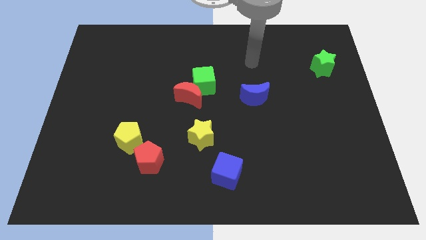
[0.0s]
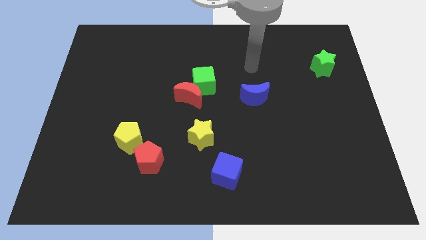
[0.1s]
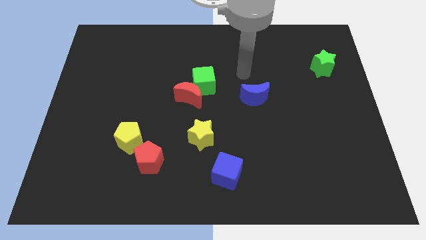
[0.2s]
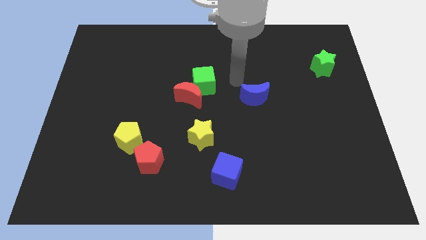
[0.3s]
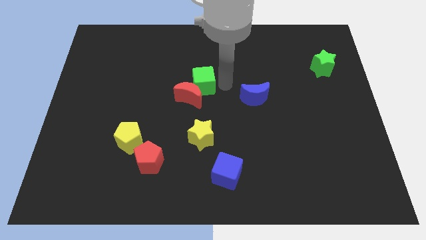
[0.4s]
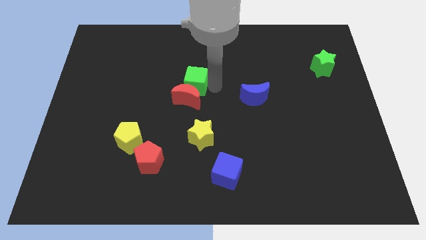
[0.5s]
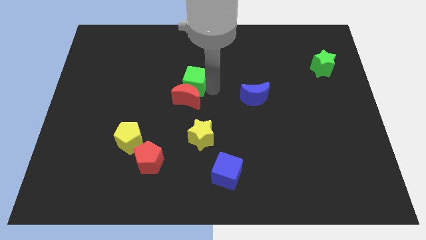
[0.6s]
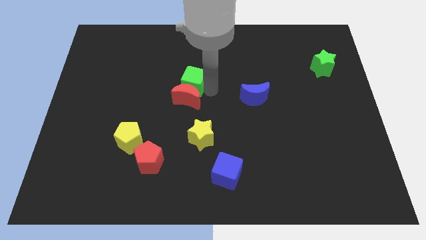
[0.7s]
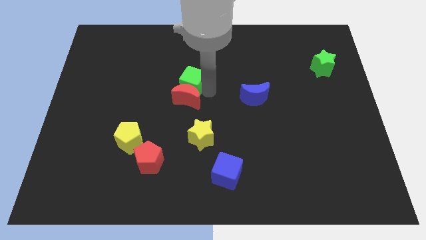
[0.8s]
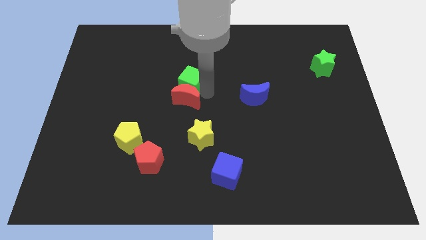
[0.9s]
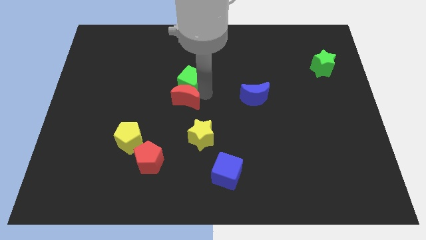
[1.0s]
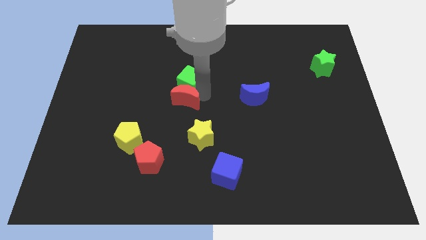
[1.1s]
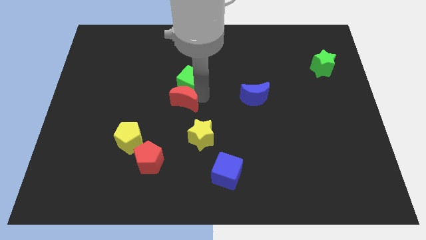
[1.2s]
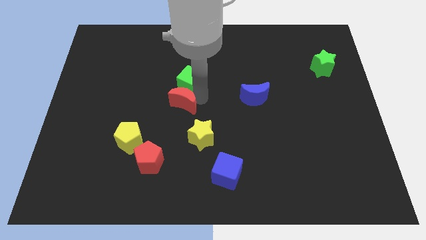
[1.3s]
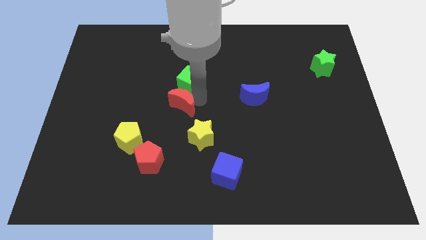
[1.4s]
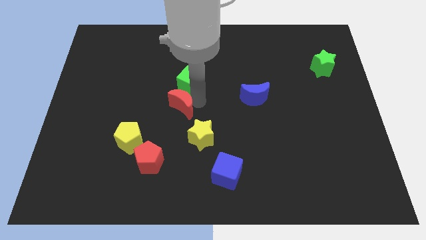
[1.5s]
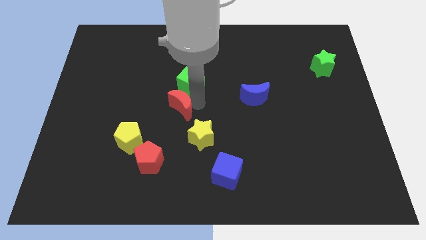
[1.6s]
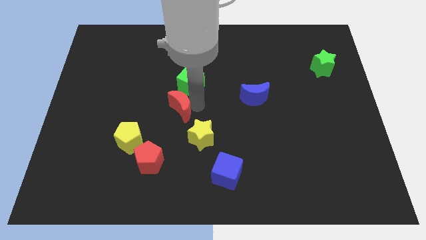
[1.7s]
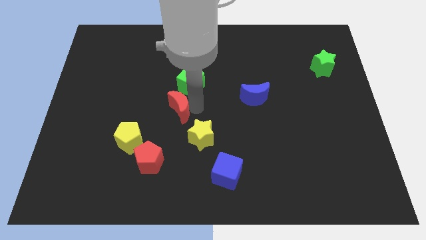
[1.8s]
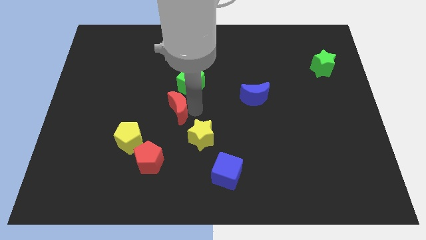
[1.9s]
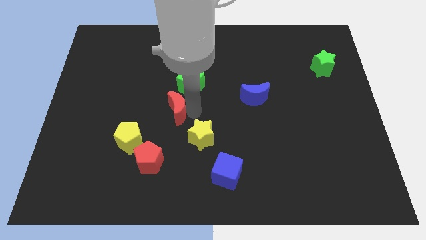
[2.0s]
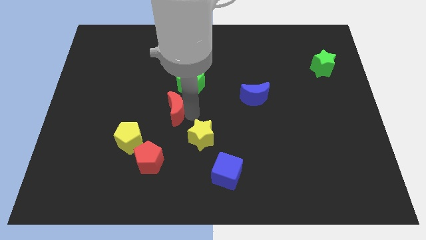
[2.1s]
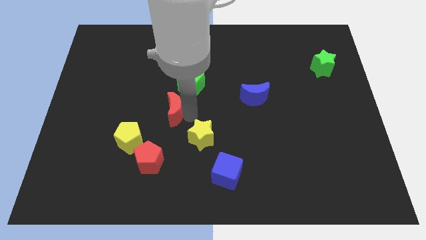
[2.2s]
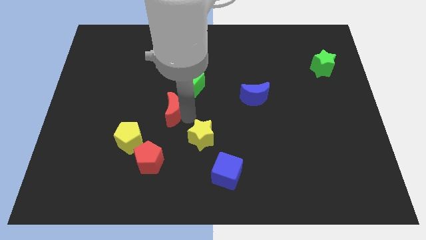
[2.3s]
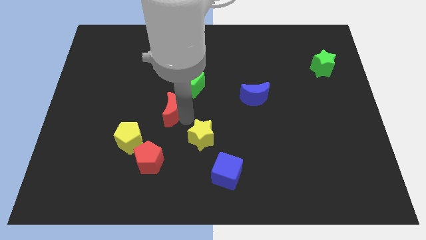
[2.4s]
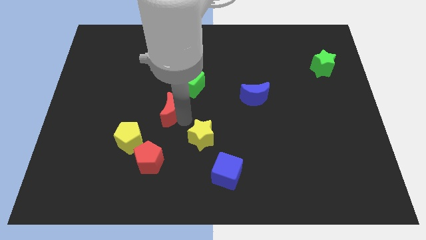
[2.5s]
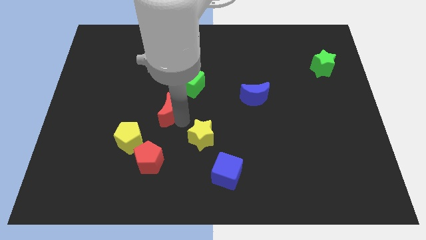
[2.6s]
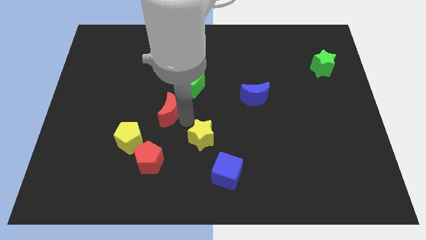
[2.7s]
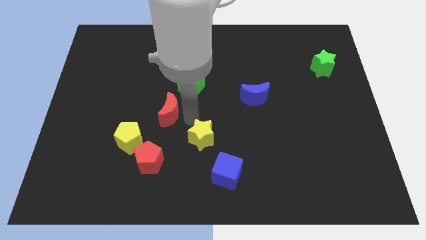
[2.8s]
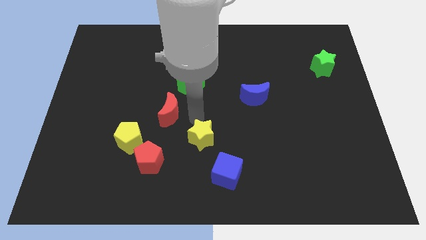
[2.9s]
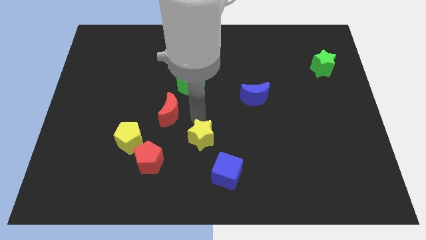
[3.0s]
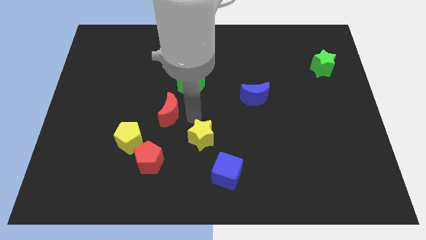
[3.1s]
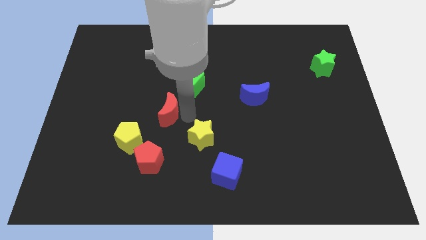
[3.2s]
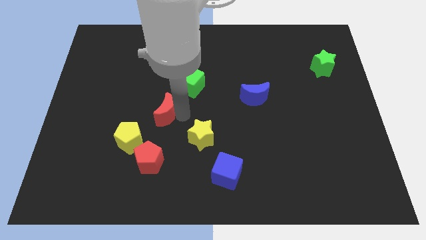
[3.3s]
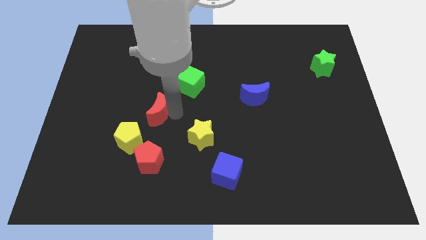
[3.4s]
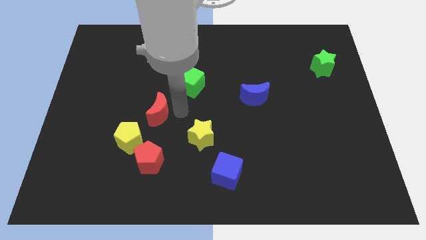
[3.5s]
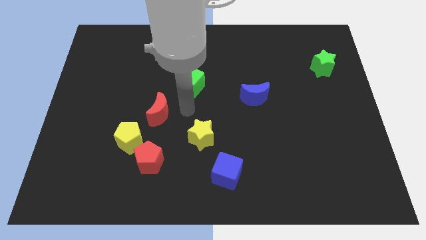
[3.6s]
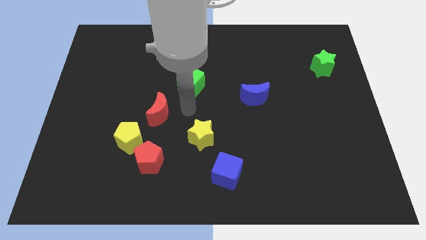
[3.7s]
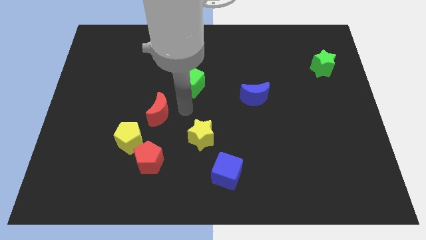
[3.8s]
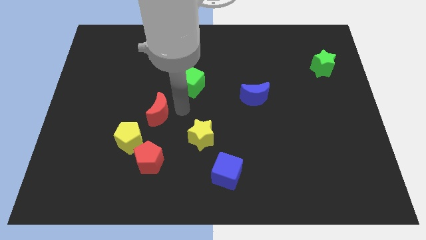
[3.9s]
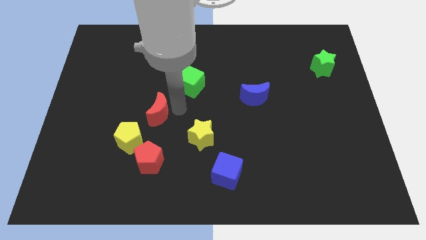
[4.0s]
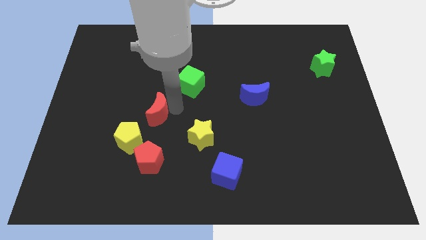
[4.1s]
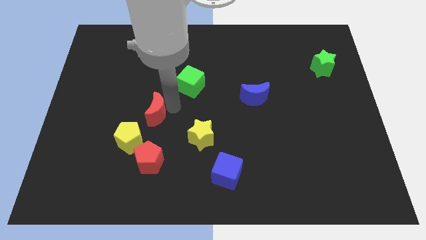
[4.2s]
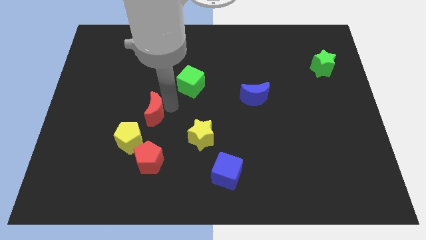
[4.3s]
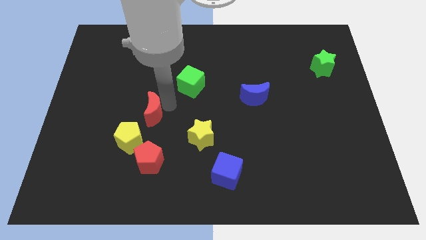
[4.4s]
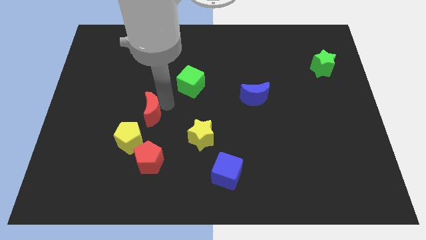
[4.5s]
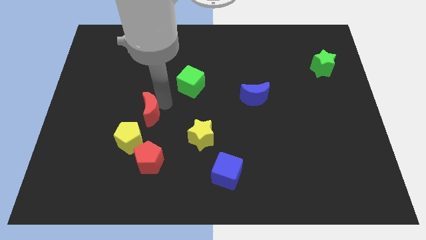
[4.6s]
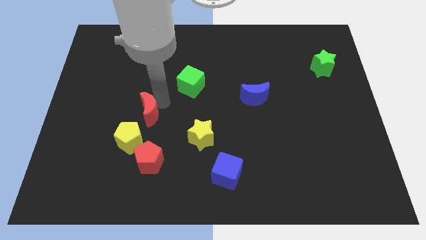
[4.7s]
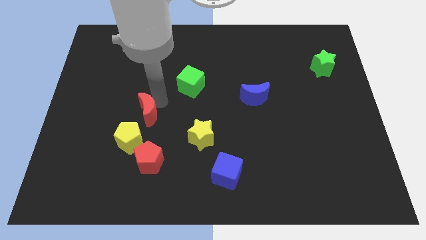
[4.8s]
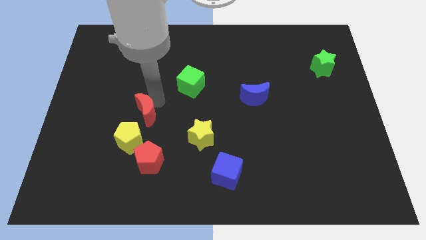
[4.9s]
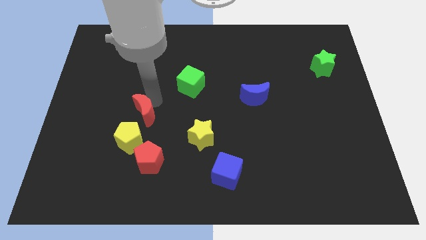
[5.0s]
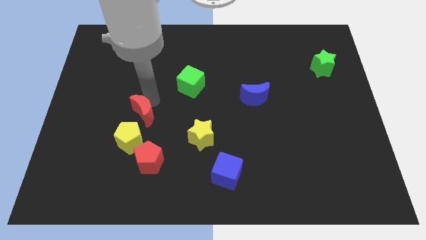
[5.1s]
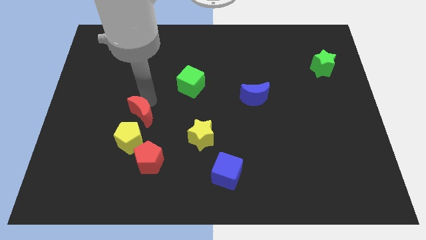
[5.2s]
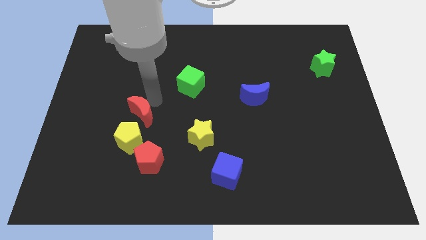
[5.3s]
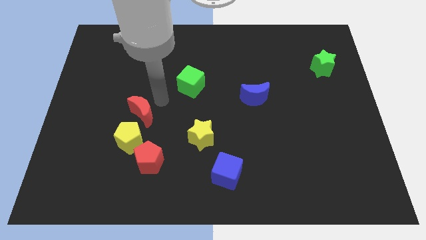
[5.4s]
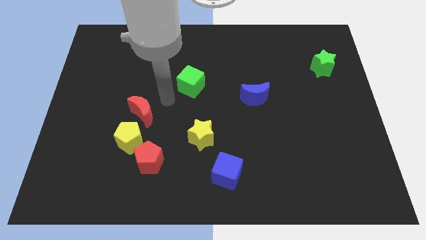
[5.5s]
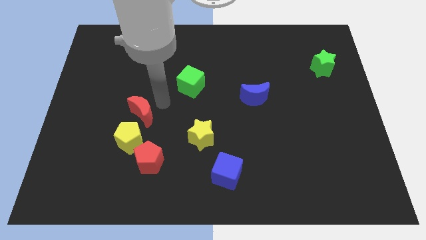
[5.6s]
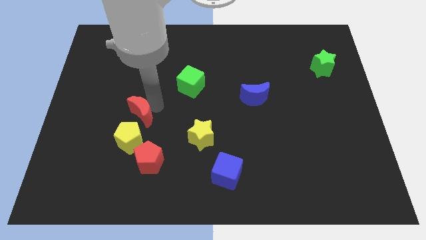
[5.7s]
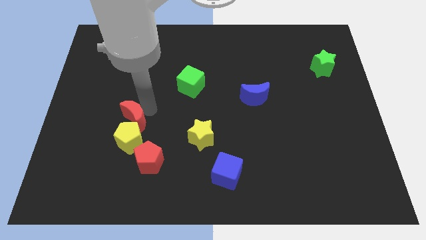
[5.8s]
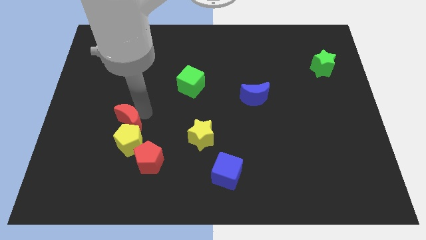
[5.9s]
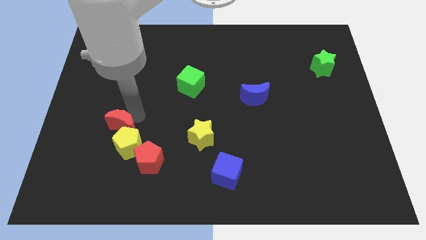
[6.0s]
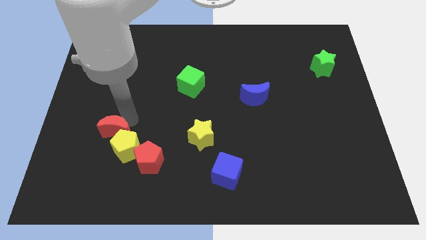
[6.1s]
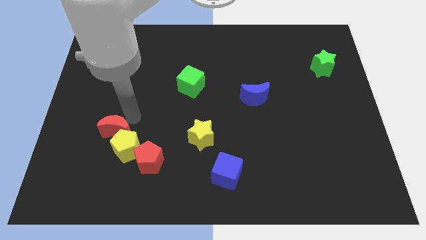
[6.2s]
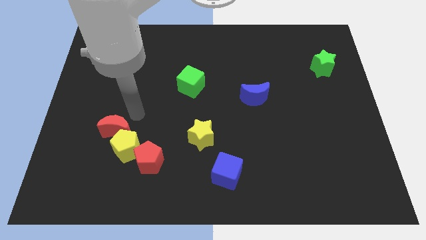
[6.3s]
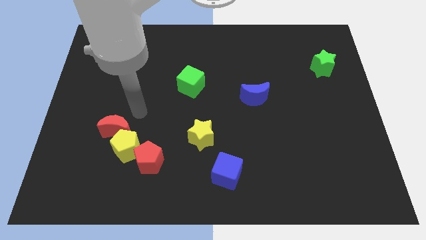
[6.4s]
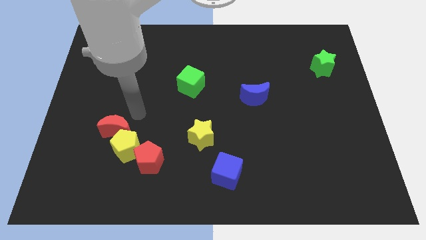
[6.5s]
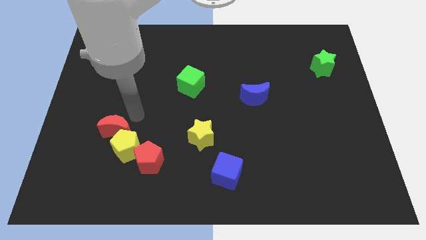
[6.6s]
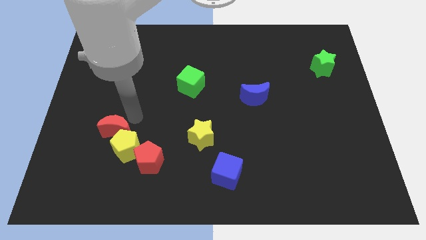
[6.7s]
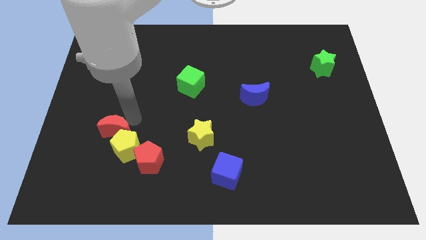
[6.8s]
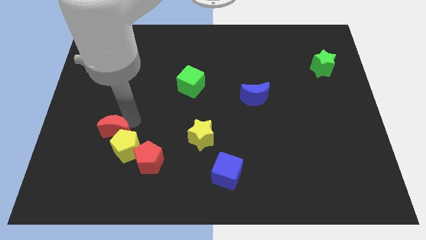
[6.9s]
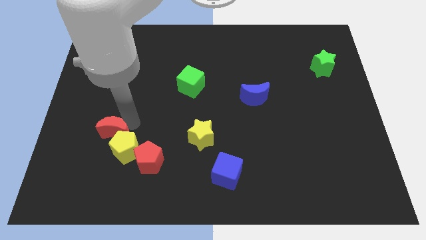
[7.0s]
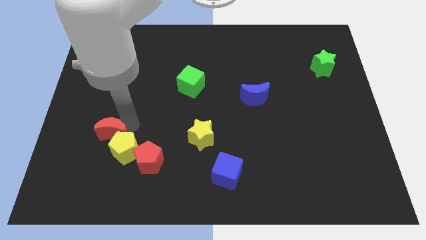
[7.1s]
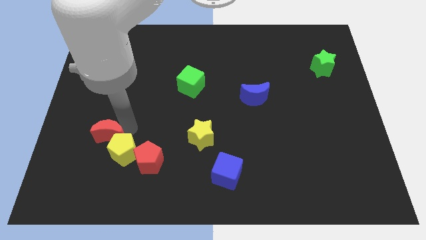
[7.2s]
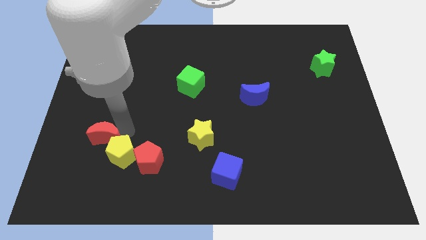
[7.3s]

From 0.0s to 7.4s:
move the red moon downwards and to the left diagonally
